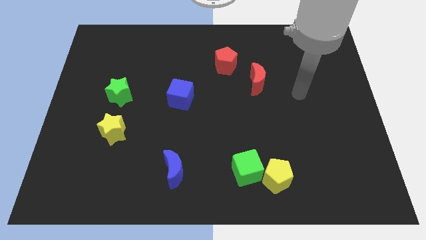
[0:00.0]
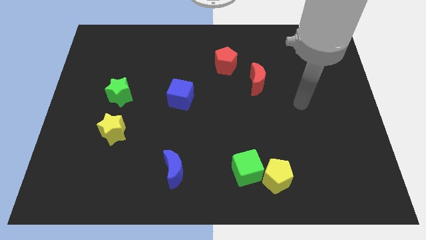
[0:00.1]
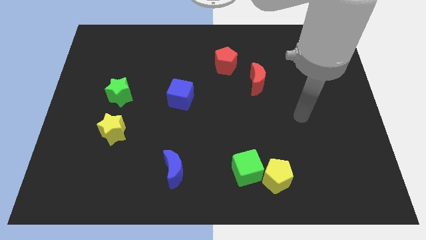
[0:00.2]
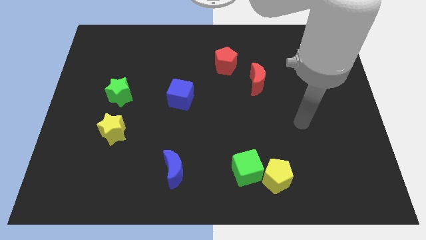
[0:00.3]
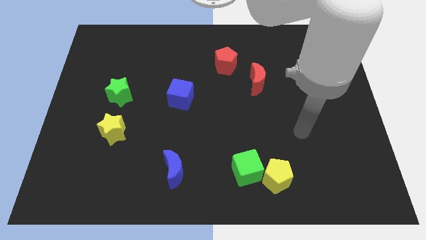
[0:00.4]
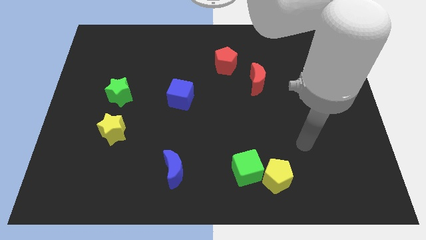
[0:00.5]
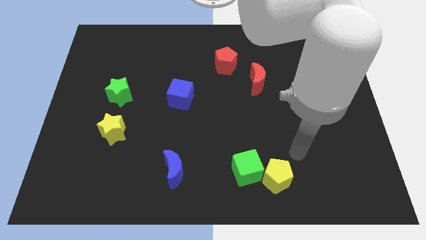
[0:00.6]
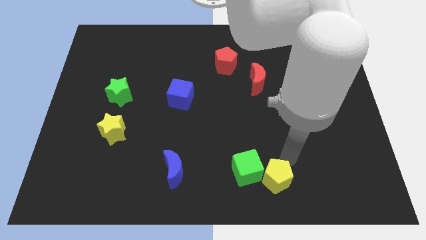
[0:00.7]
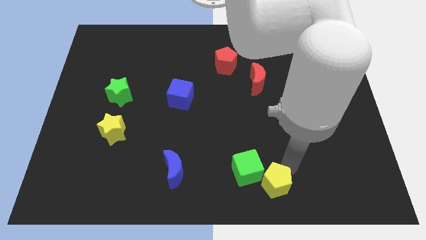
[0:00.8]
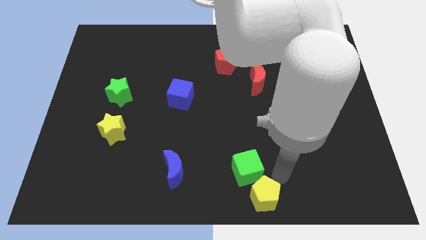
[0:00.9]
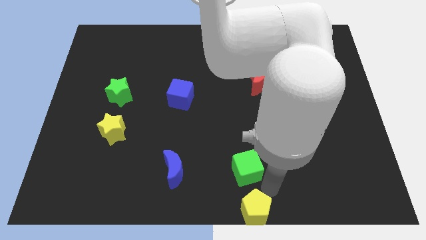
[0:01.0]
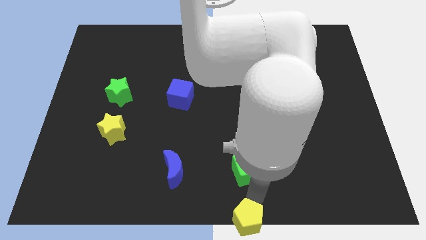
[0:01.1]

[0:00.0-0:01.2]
separate the green cube from the yellow pentagon

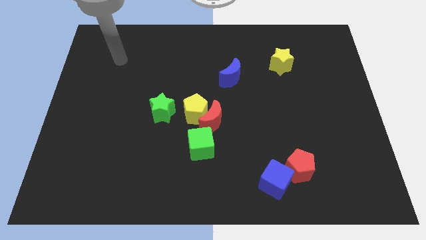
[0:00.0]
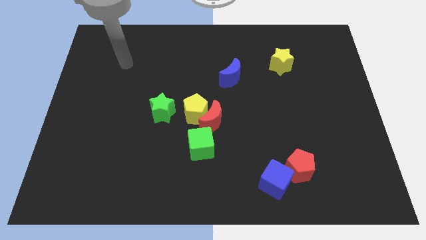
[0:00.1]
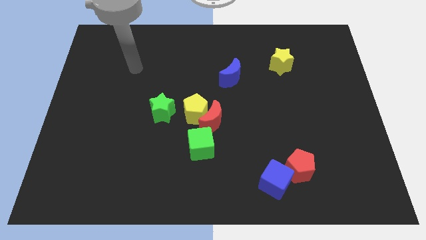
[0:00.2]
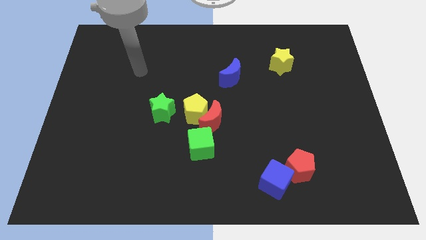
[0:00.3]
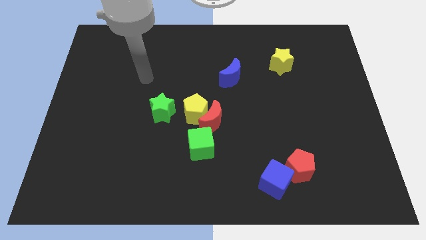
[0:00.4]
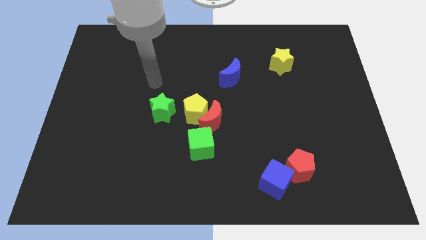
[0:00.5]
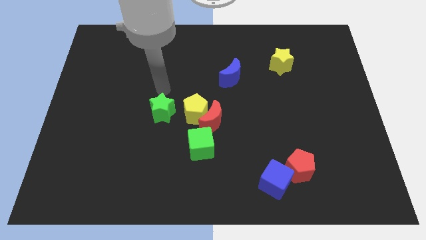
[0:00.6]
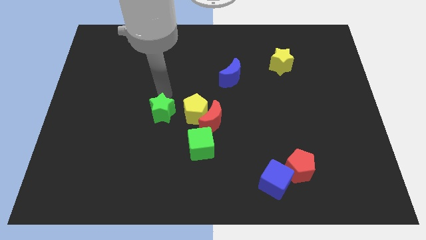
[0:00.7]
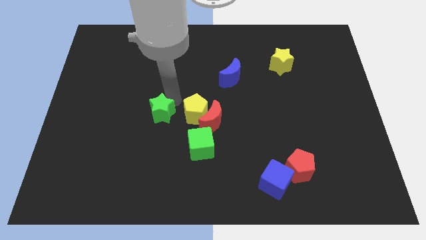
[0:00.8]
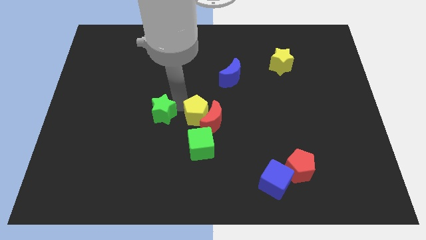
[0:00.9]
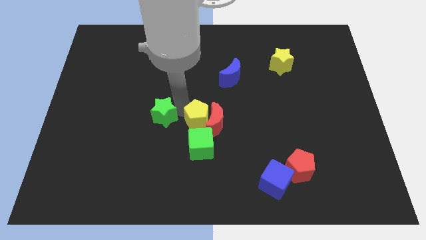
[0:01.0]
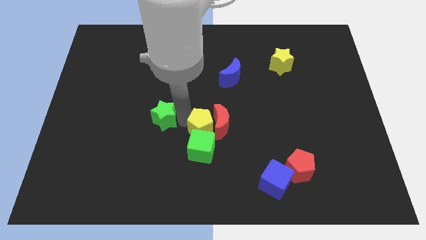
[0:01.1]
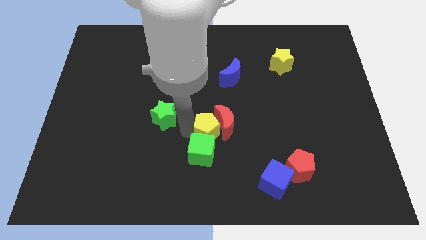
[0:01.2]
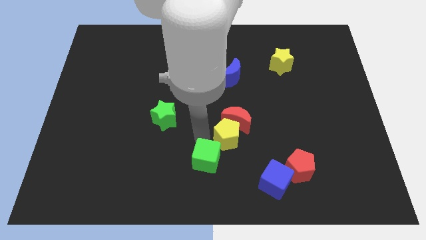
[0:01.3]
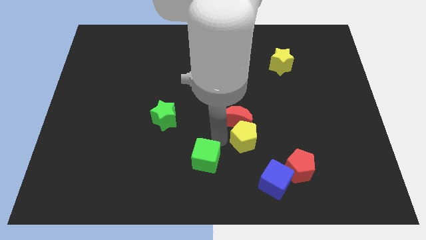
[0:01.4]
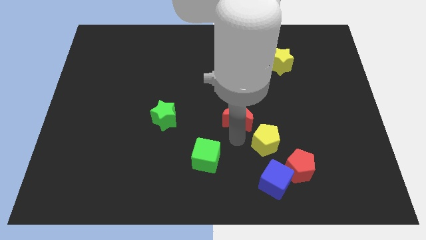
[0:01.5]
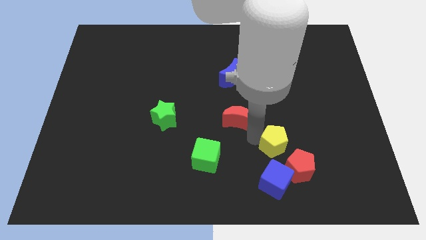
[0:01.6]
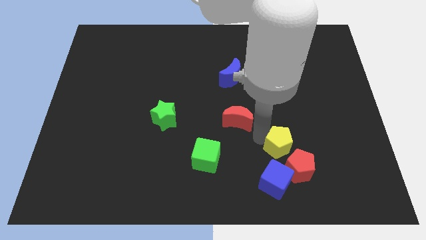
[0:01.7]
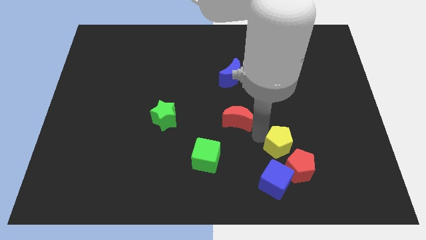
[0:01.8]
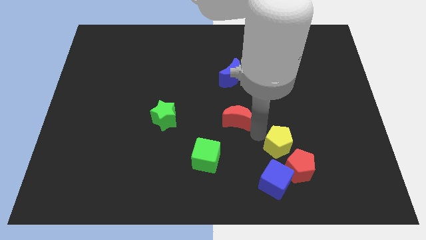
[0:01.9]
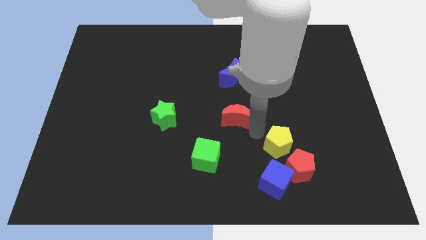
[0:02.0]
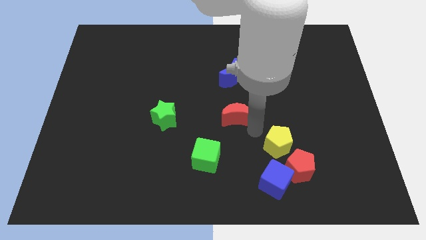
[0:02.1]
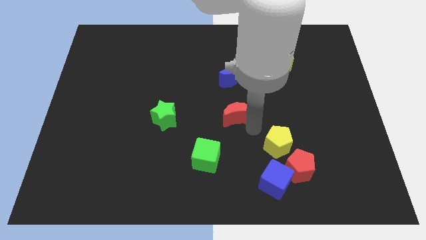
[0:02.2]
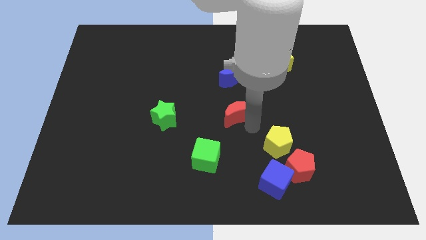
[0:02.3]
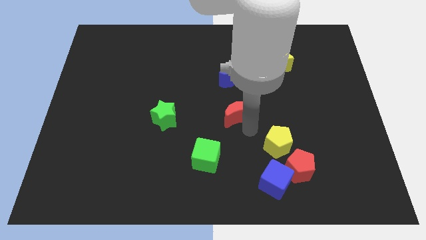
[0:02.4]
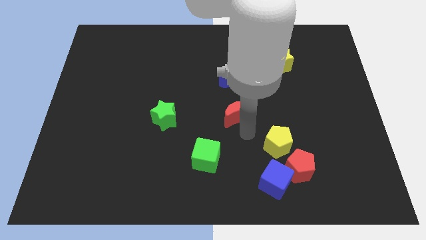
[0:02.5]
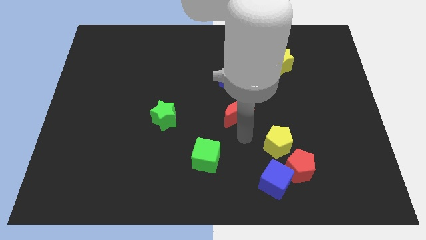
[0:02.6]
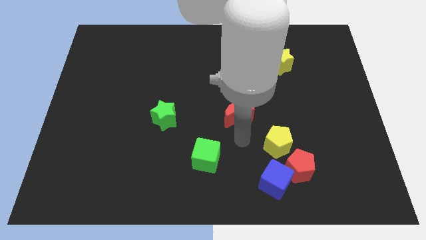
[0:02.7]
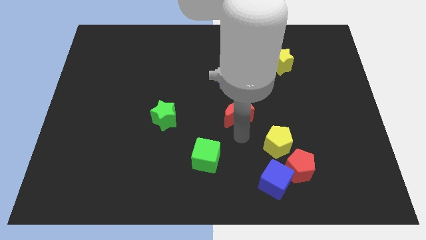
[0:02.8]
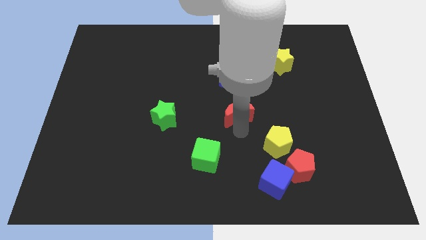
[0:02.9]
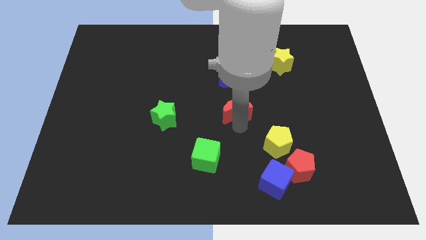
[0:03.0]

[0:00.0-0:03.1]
separate the red moon from the yellow pentagon and green cube

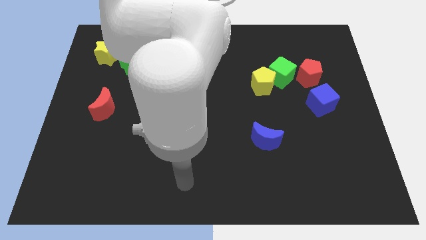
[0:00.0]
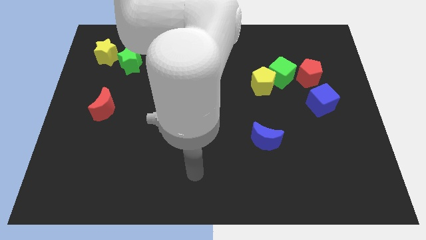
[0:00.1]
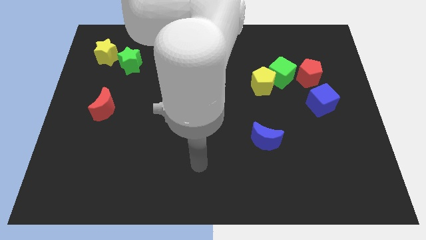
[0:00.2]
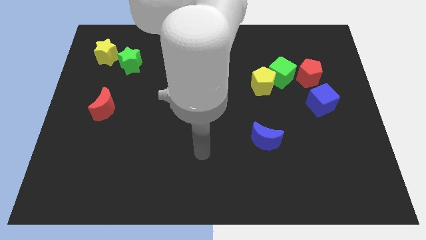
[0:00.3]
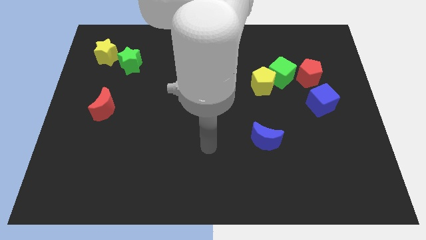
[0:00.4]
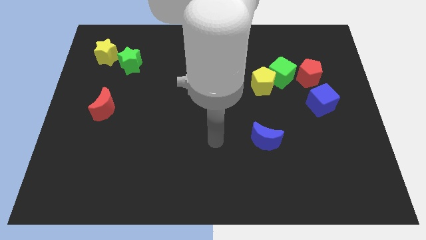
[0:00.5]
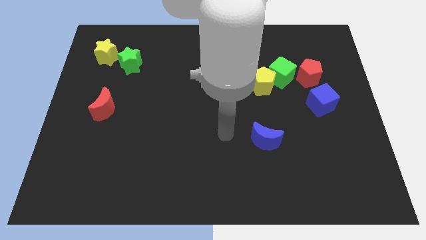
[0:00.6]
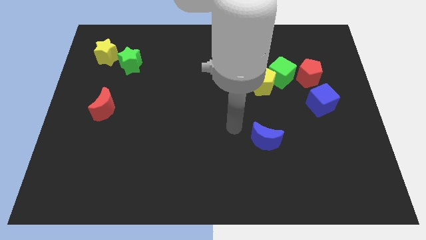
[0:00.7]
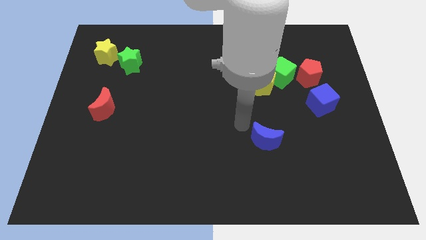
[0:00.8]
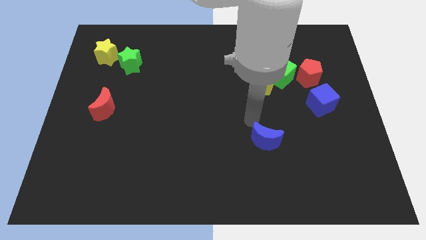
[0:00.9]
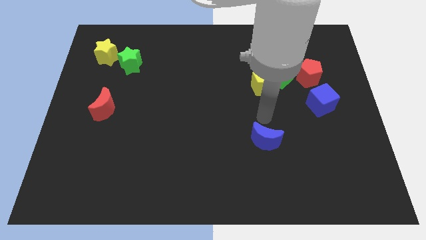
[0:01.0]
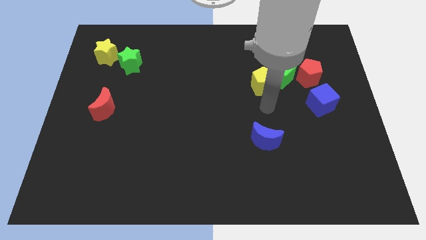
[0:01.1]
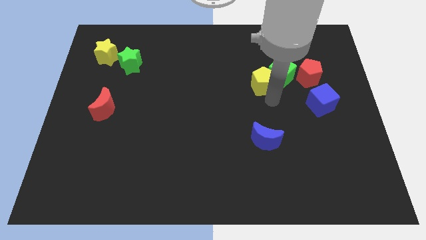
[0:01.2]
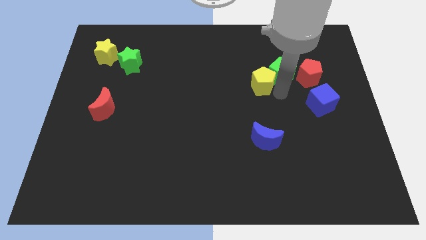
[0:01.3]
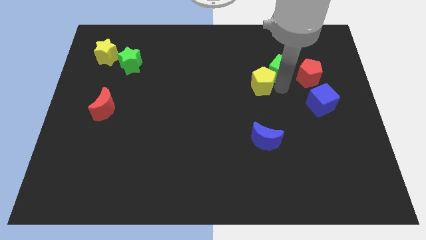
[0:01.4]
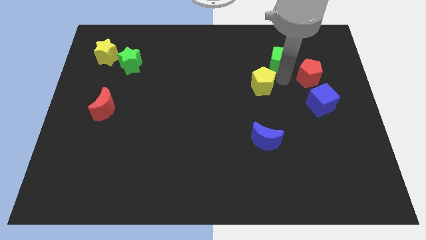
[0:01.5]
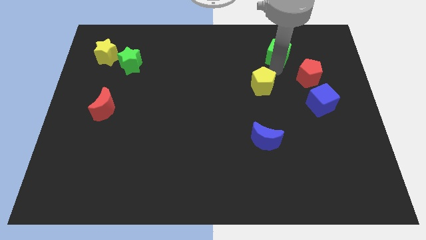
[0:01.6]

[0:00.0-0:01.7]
pull the yellow pentagon apart from the green cube

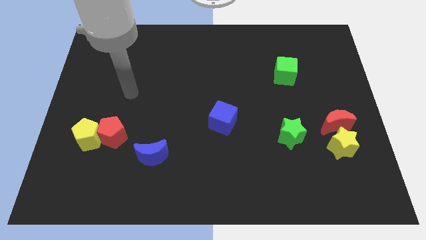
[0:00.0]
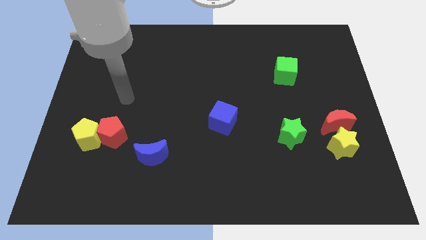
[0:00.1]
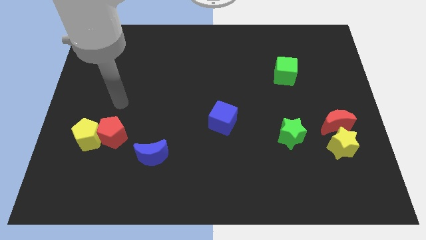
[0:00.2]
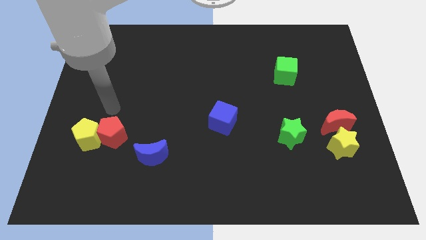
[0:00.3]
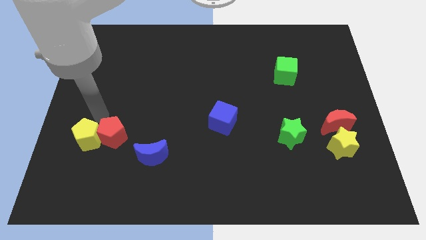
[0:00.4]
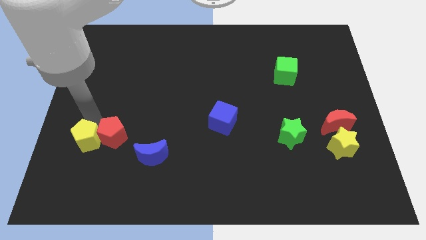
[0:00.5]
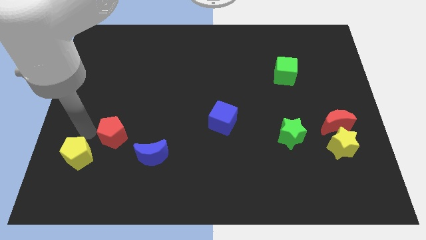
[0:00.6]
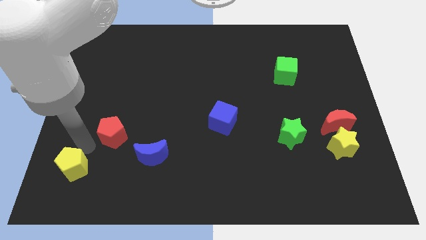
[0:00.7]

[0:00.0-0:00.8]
pull the red pentagon apart from the yellow pentagon

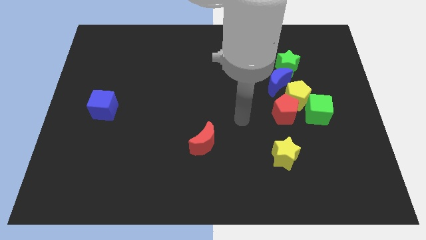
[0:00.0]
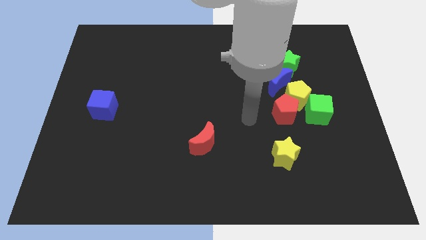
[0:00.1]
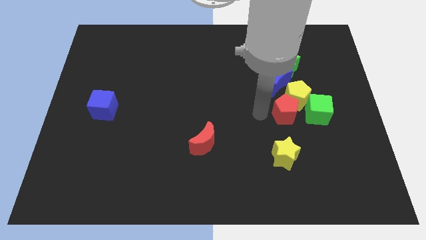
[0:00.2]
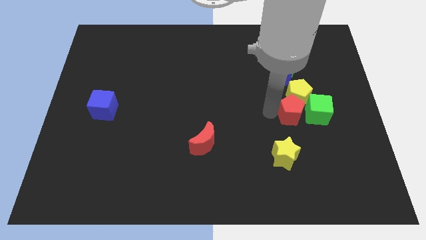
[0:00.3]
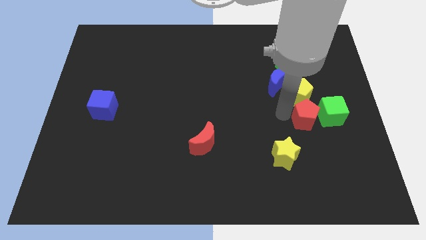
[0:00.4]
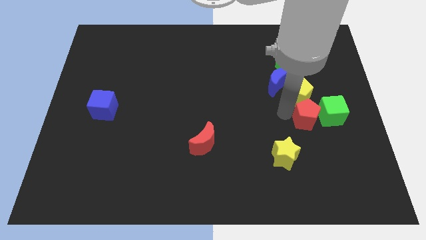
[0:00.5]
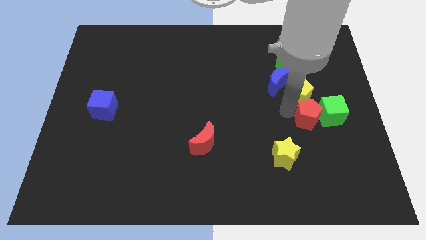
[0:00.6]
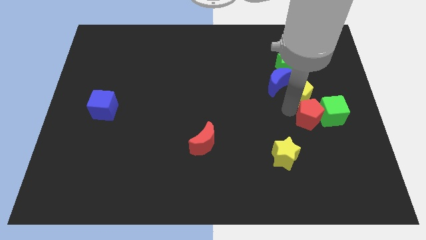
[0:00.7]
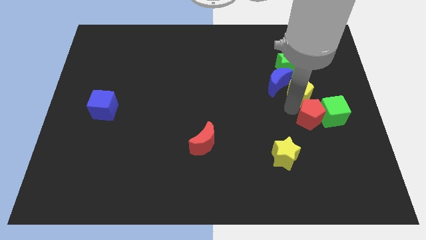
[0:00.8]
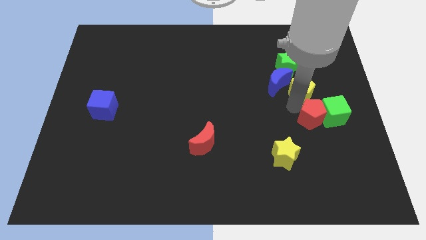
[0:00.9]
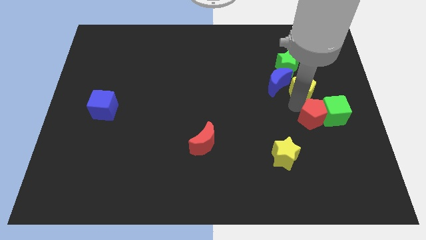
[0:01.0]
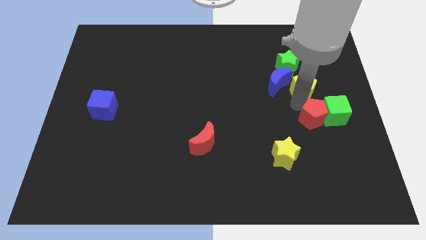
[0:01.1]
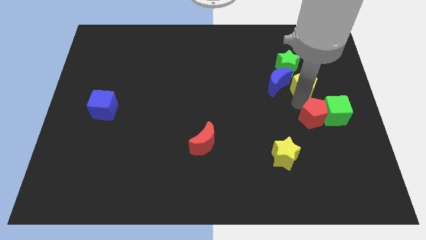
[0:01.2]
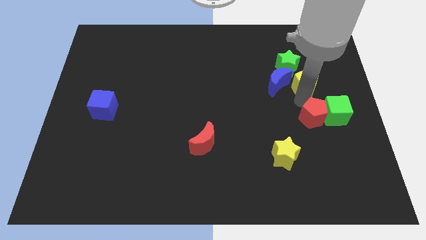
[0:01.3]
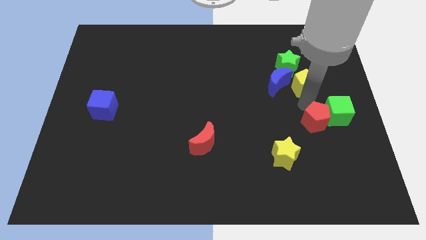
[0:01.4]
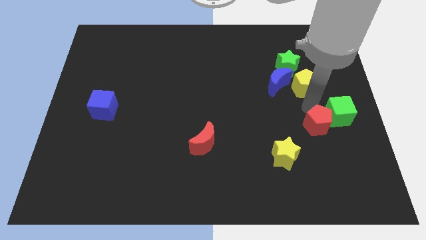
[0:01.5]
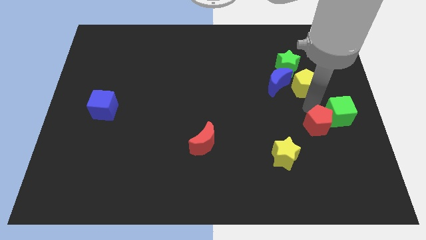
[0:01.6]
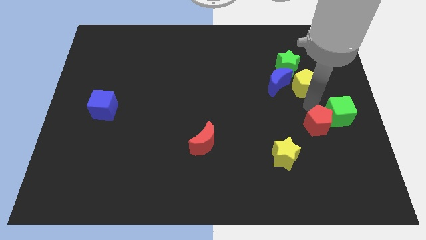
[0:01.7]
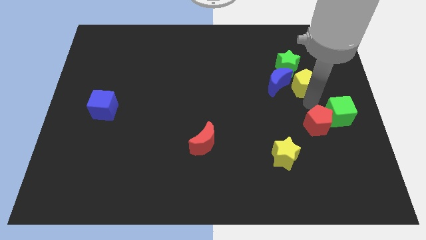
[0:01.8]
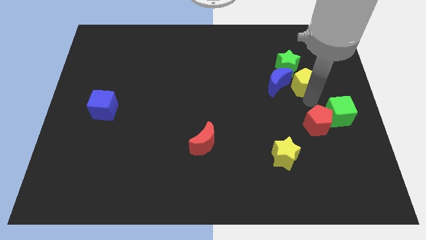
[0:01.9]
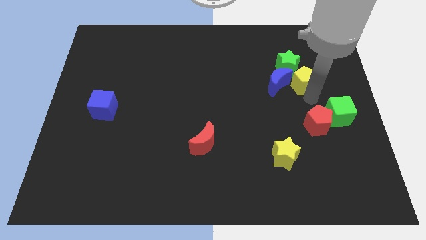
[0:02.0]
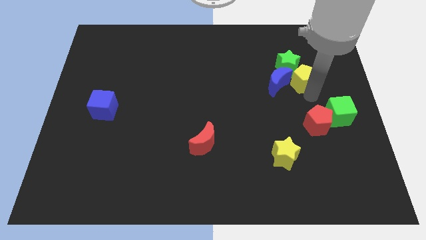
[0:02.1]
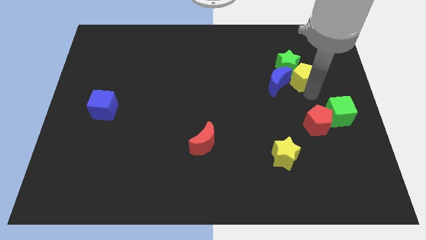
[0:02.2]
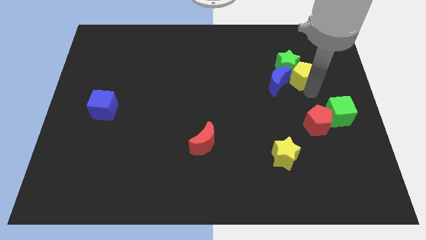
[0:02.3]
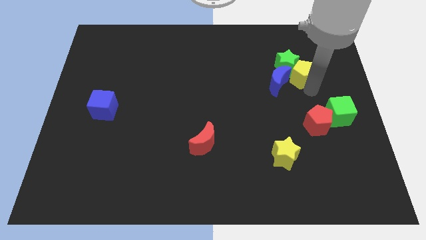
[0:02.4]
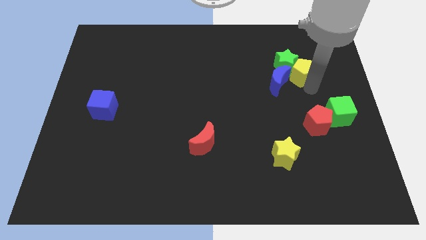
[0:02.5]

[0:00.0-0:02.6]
move the yellow pentagon away from the clump
